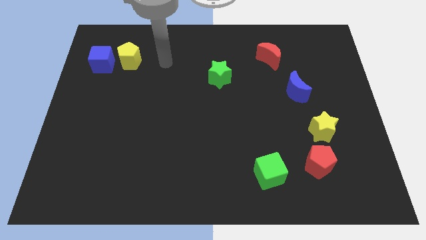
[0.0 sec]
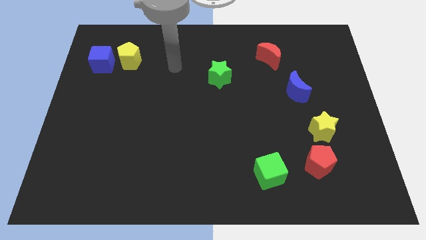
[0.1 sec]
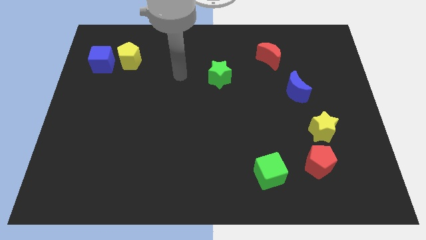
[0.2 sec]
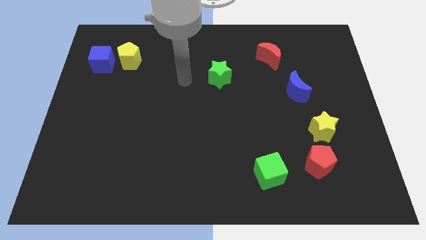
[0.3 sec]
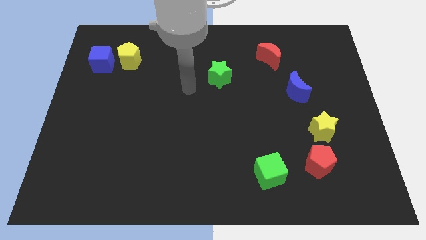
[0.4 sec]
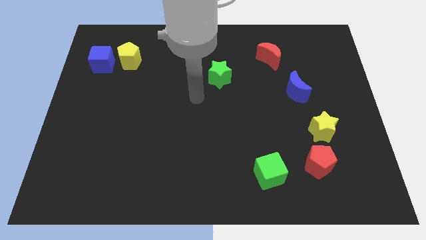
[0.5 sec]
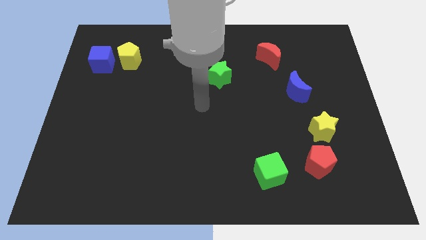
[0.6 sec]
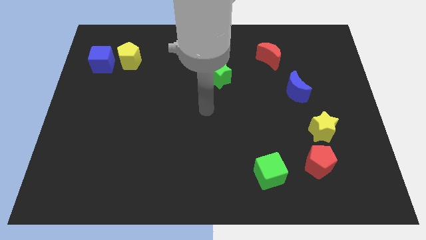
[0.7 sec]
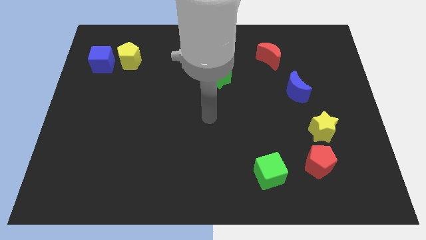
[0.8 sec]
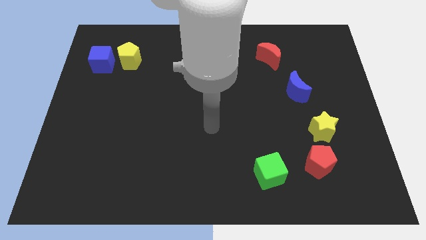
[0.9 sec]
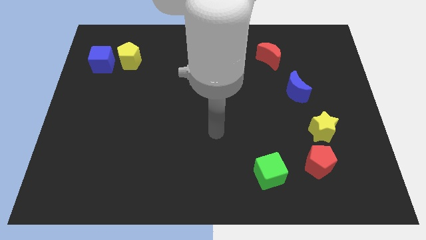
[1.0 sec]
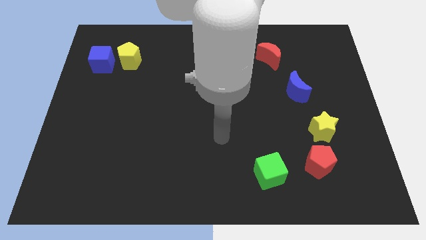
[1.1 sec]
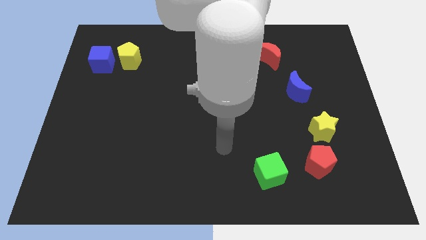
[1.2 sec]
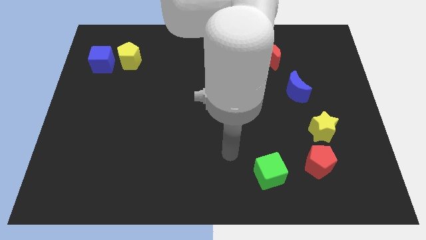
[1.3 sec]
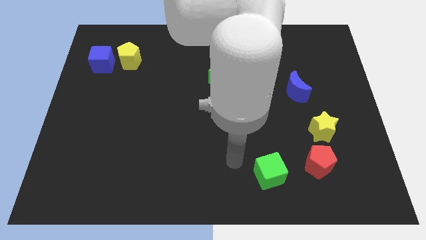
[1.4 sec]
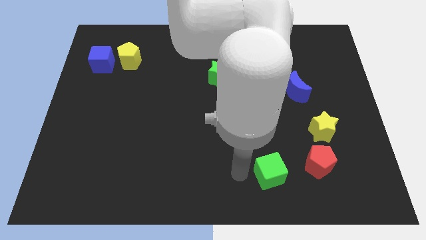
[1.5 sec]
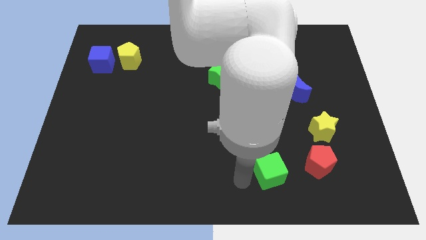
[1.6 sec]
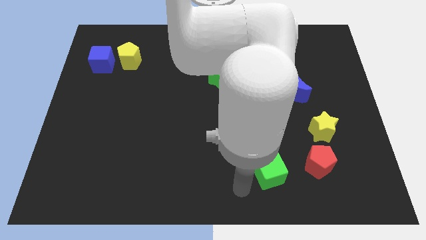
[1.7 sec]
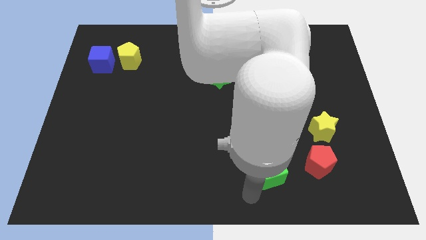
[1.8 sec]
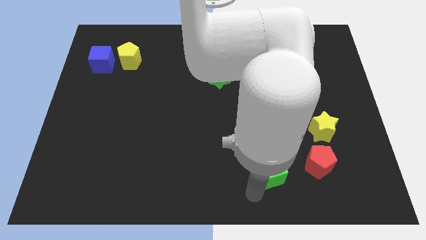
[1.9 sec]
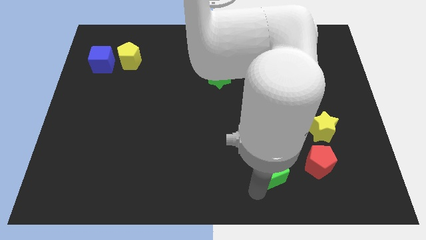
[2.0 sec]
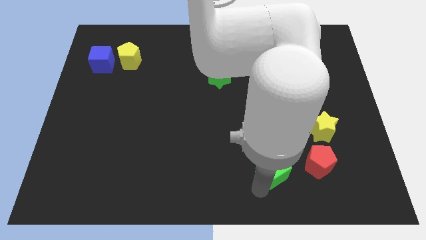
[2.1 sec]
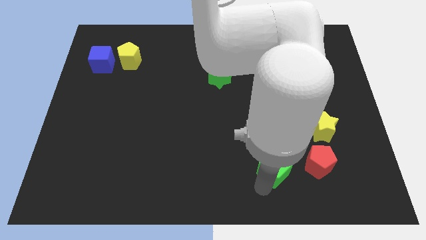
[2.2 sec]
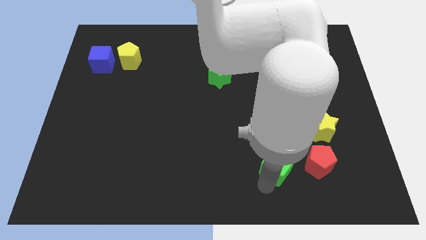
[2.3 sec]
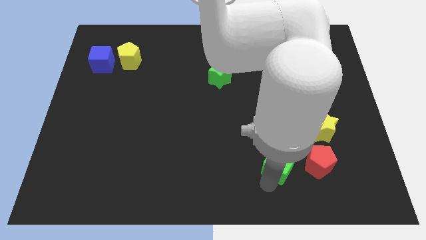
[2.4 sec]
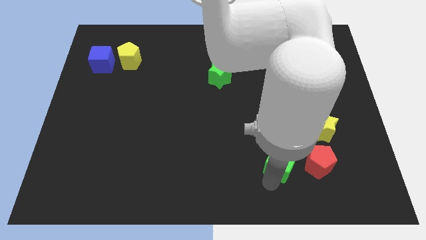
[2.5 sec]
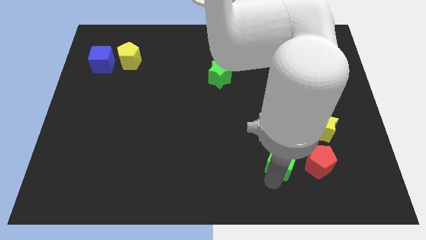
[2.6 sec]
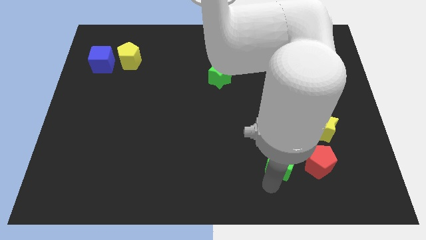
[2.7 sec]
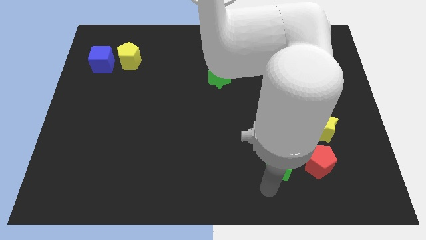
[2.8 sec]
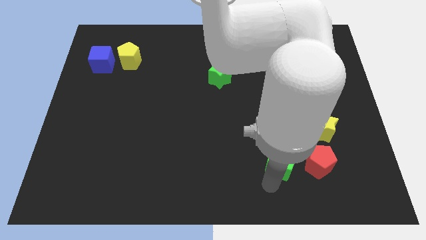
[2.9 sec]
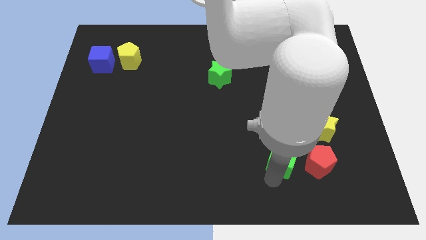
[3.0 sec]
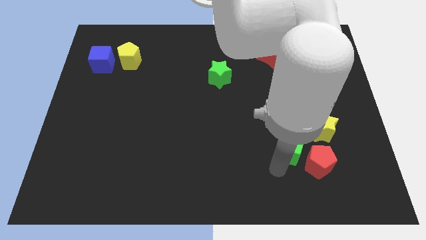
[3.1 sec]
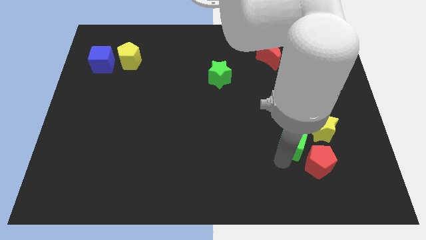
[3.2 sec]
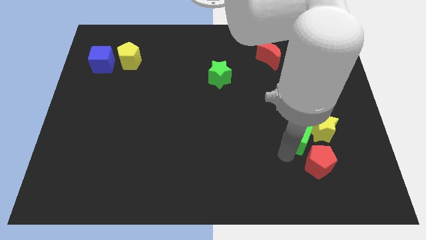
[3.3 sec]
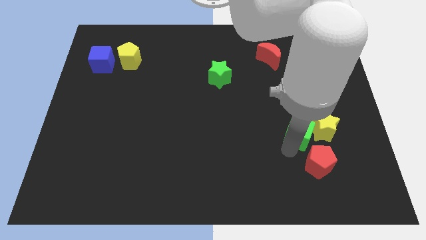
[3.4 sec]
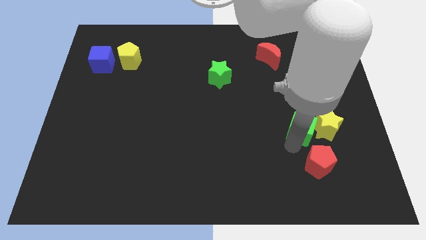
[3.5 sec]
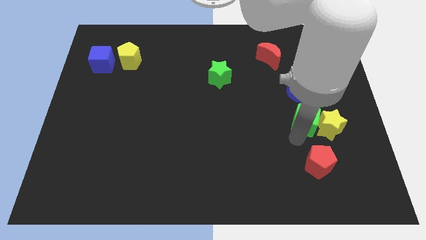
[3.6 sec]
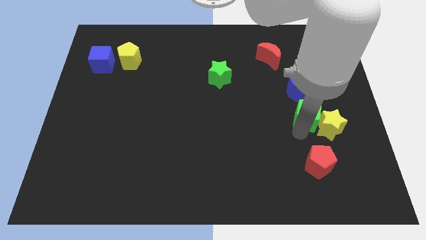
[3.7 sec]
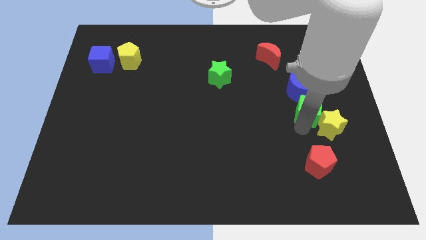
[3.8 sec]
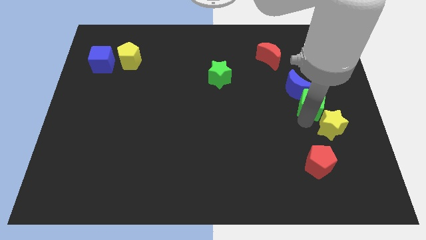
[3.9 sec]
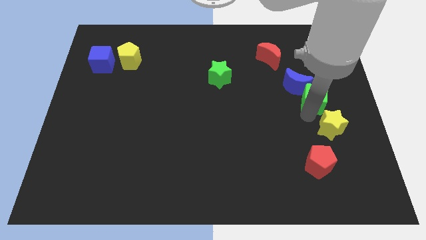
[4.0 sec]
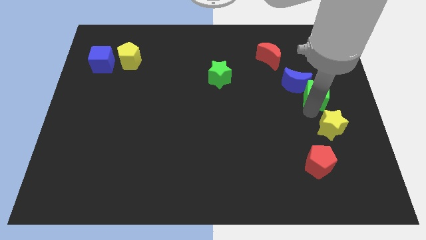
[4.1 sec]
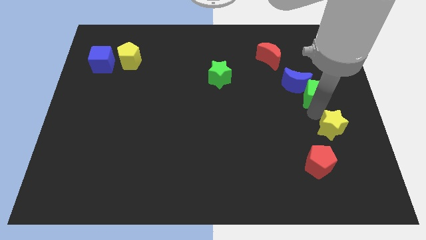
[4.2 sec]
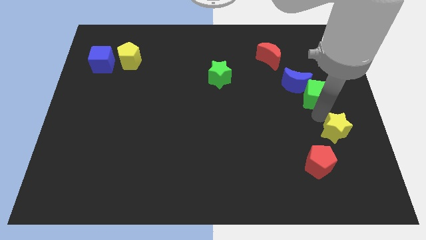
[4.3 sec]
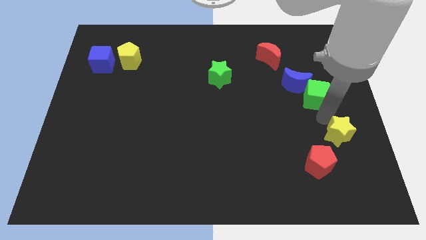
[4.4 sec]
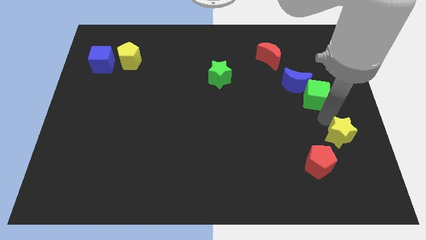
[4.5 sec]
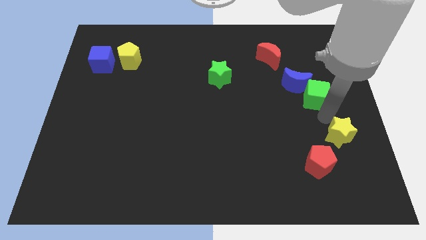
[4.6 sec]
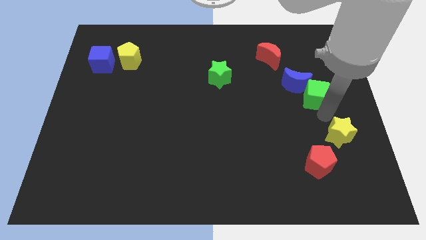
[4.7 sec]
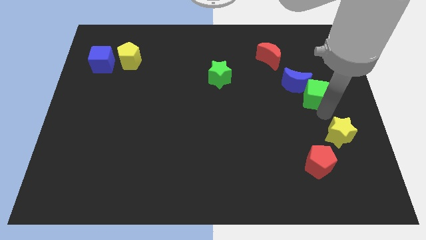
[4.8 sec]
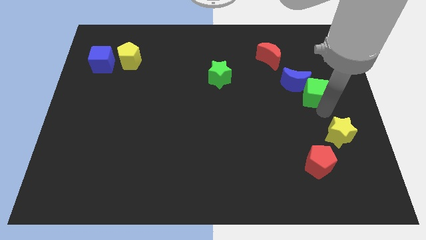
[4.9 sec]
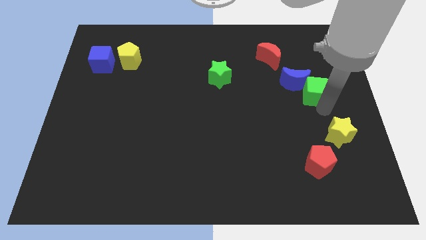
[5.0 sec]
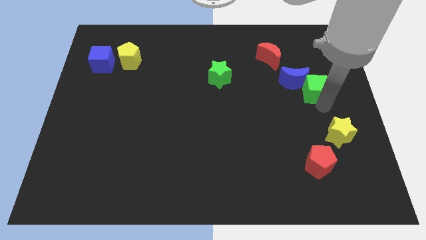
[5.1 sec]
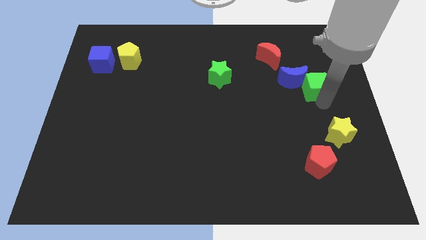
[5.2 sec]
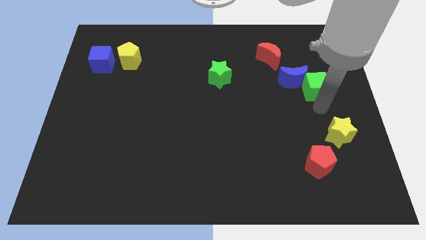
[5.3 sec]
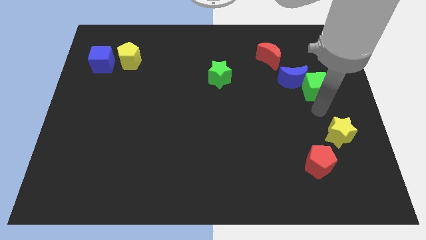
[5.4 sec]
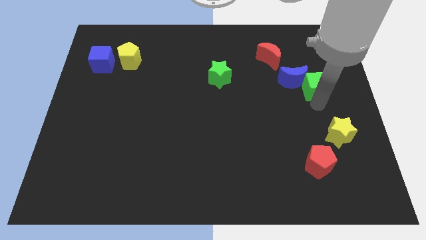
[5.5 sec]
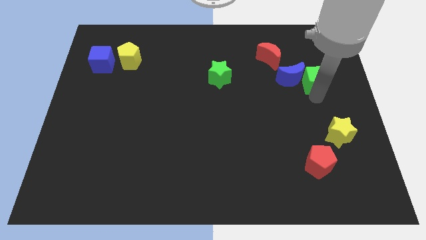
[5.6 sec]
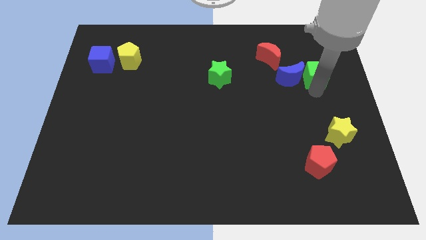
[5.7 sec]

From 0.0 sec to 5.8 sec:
slide the green cube diagonally up and to the right of the blue moon

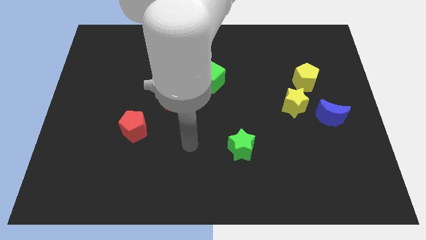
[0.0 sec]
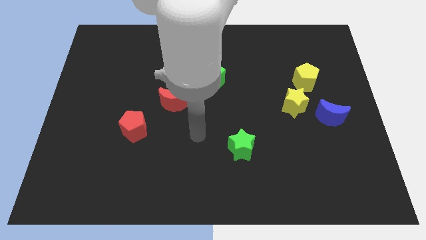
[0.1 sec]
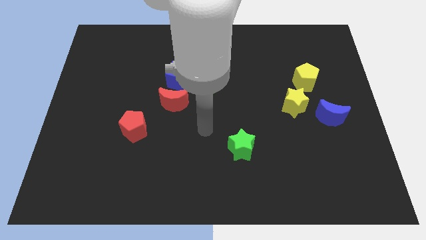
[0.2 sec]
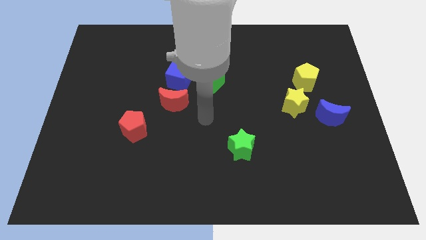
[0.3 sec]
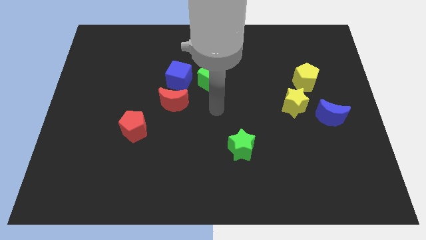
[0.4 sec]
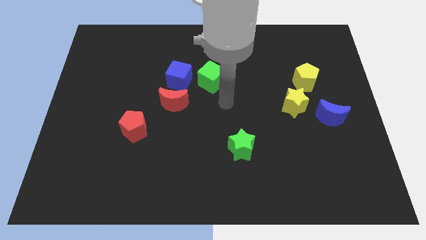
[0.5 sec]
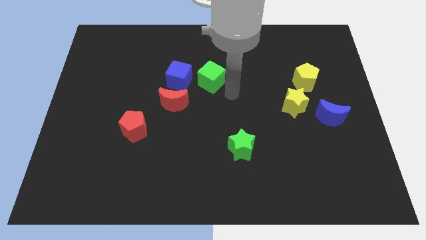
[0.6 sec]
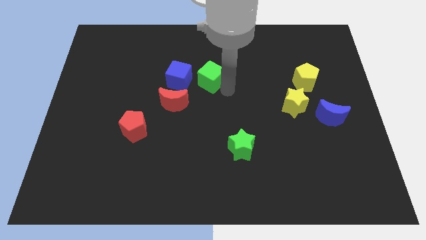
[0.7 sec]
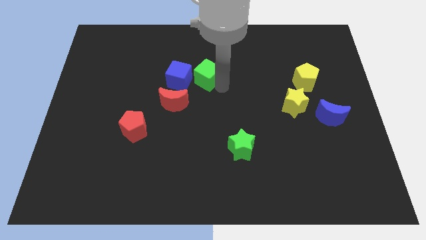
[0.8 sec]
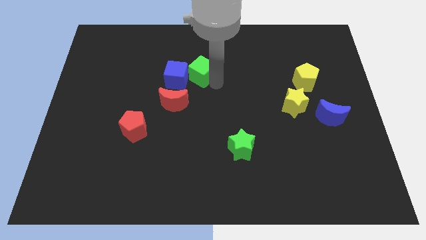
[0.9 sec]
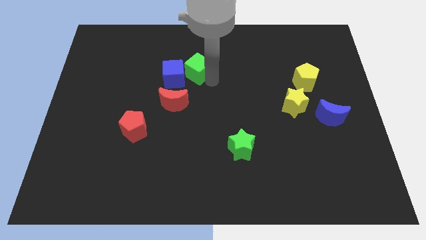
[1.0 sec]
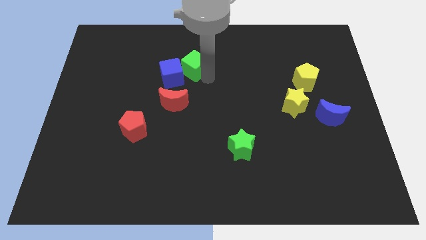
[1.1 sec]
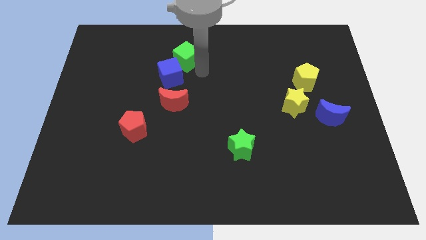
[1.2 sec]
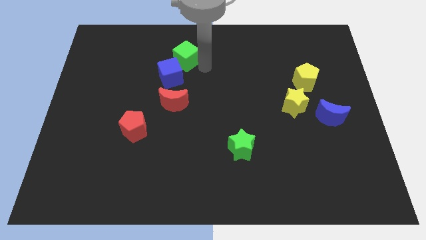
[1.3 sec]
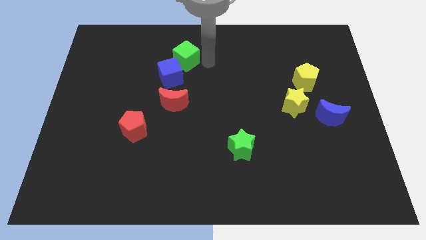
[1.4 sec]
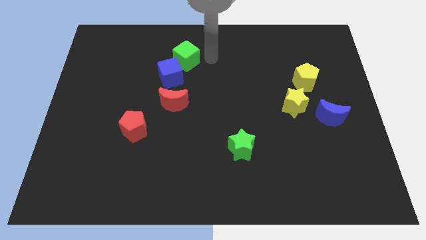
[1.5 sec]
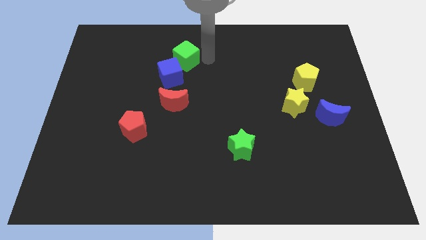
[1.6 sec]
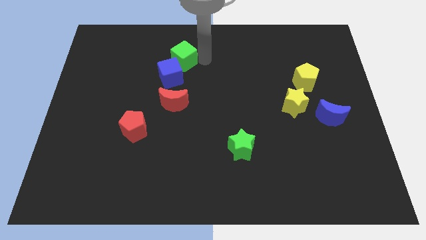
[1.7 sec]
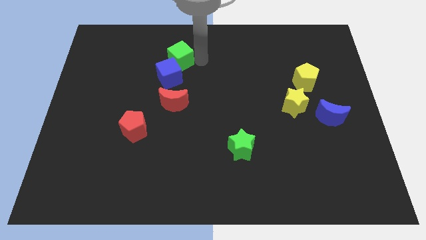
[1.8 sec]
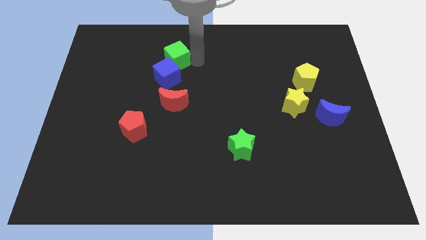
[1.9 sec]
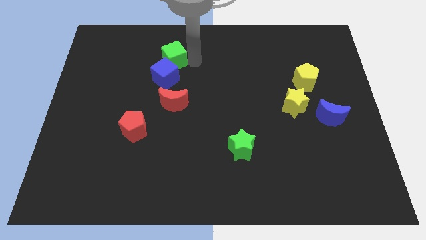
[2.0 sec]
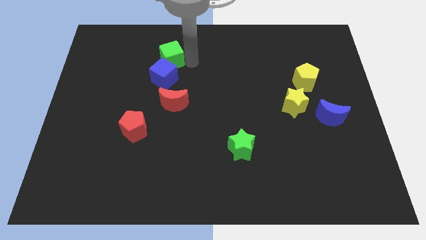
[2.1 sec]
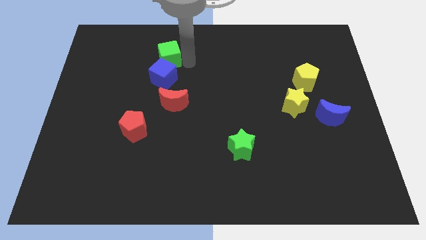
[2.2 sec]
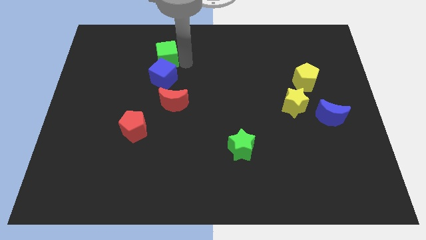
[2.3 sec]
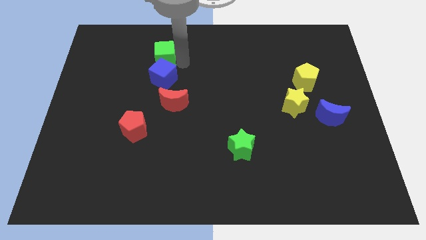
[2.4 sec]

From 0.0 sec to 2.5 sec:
put the green cube to the top left side of the blue cube
